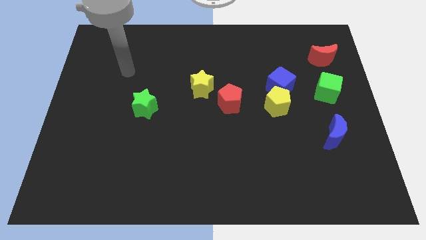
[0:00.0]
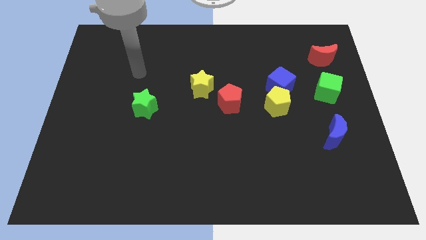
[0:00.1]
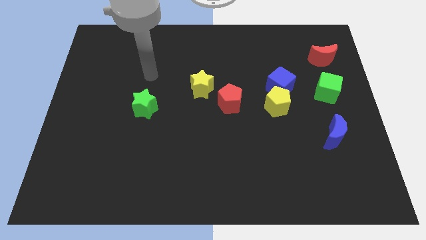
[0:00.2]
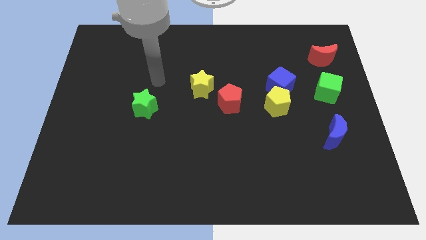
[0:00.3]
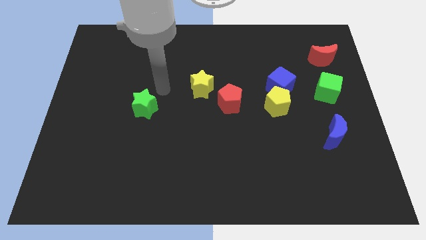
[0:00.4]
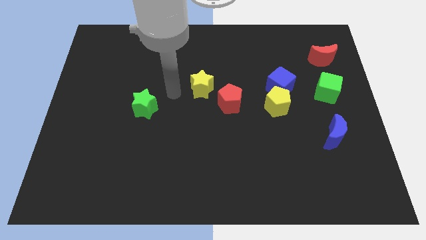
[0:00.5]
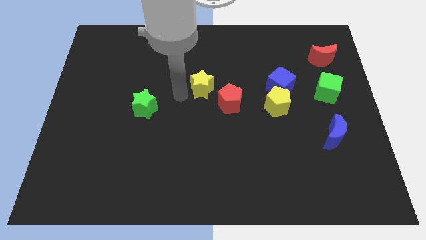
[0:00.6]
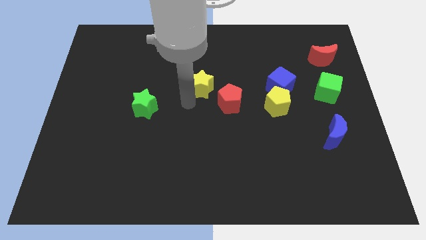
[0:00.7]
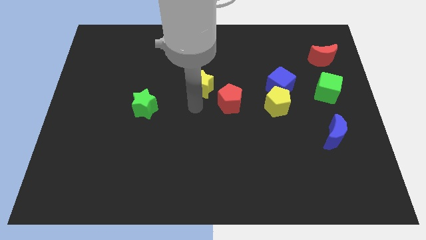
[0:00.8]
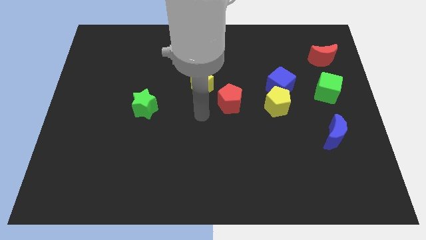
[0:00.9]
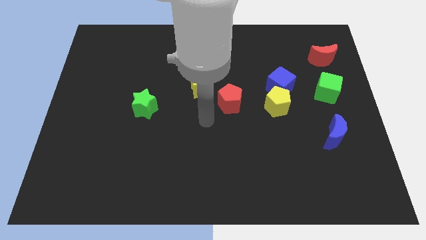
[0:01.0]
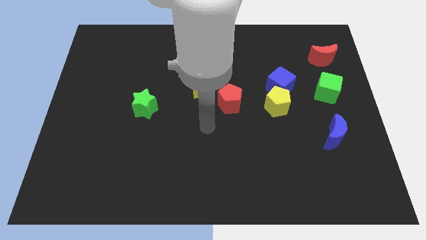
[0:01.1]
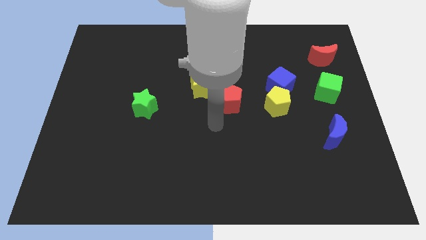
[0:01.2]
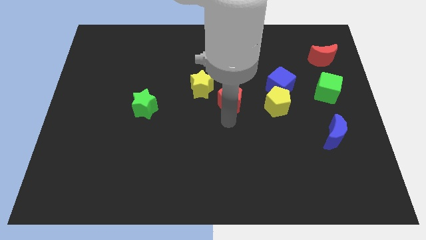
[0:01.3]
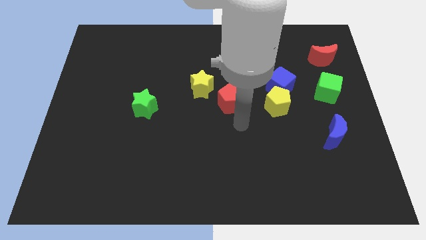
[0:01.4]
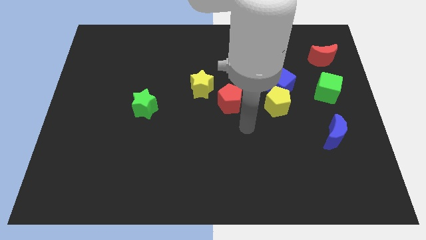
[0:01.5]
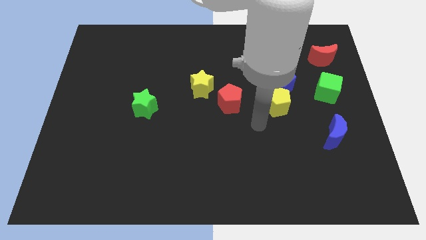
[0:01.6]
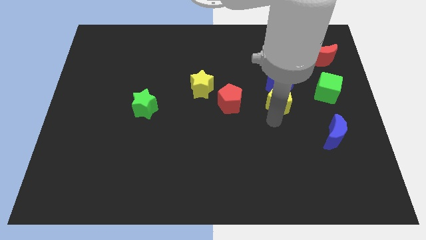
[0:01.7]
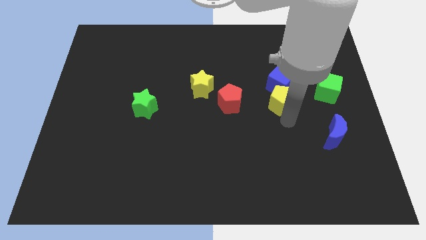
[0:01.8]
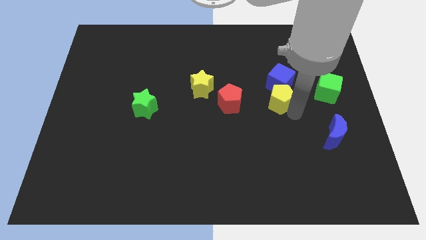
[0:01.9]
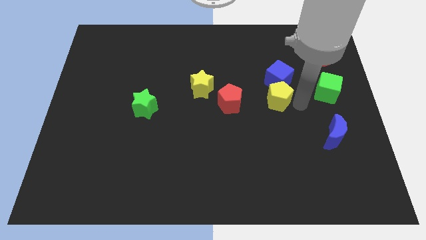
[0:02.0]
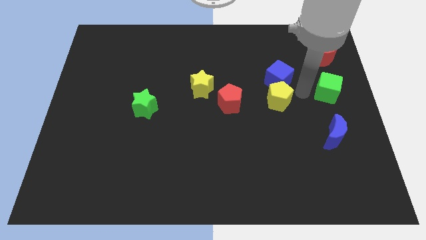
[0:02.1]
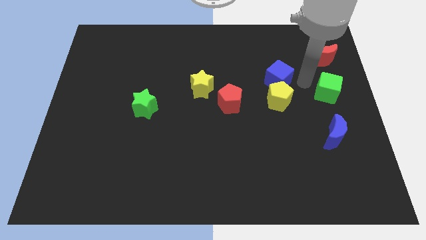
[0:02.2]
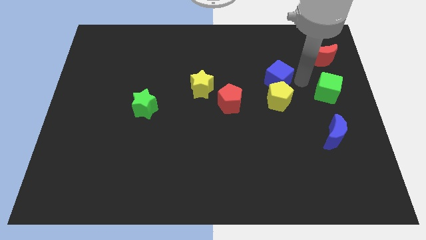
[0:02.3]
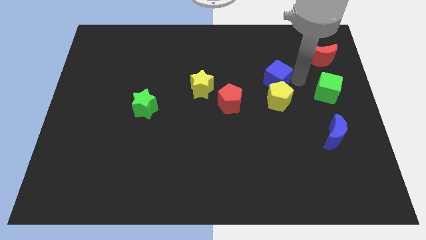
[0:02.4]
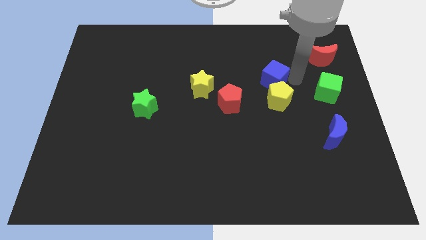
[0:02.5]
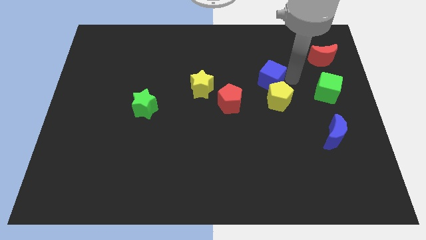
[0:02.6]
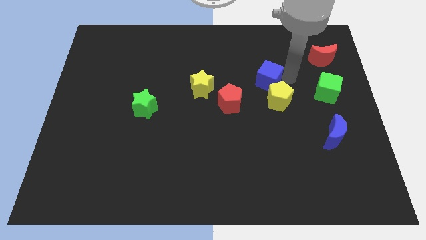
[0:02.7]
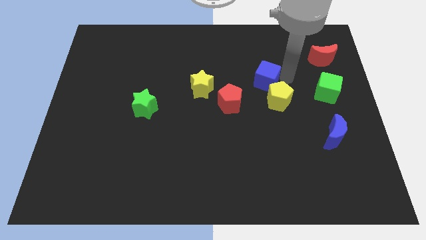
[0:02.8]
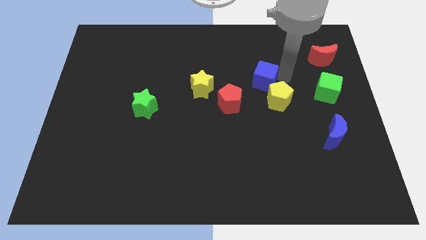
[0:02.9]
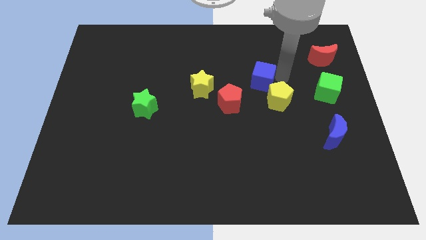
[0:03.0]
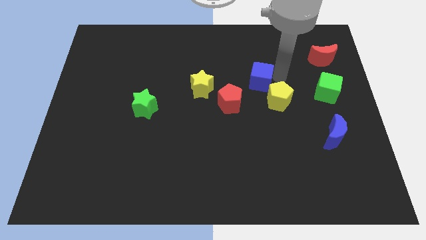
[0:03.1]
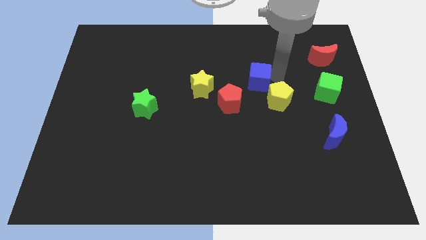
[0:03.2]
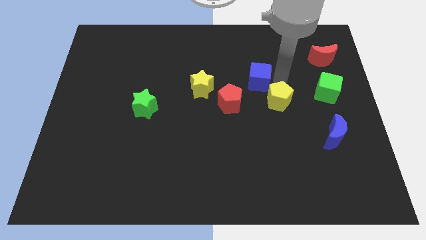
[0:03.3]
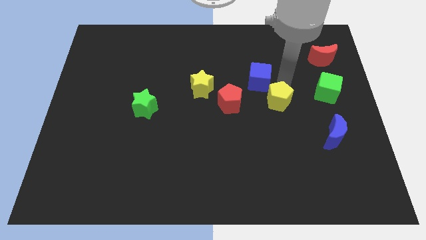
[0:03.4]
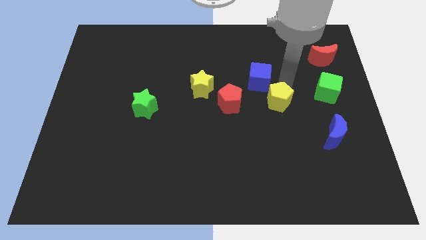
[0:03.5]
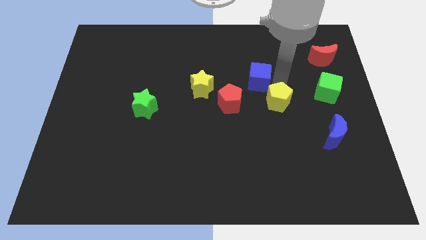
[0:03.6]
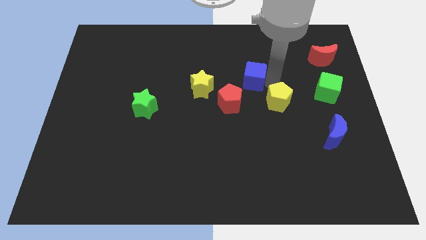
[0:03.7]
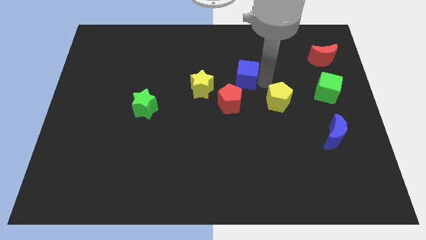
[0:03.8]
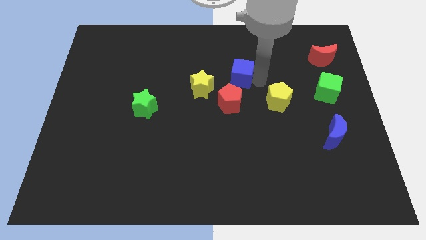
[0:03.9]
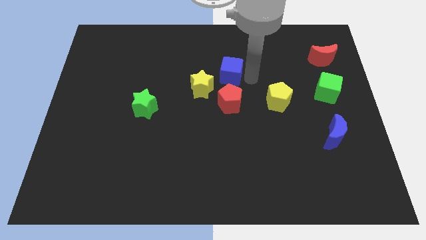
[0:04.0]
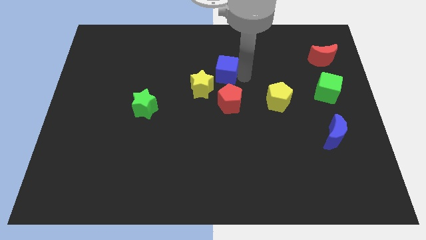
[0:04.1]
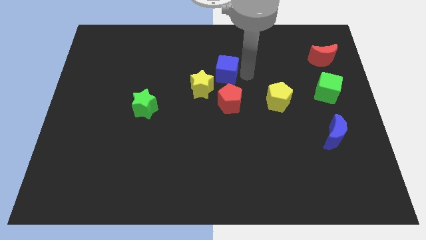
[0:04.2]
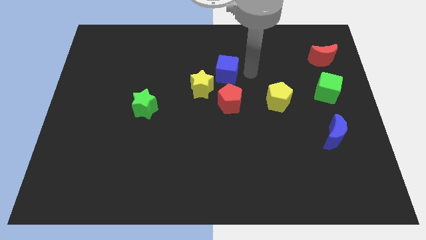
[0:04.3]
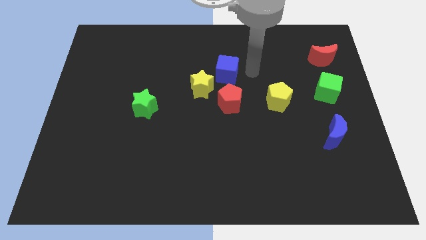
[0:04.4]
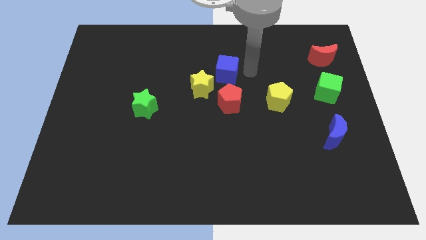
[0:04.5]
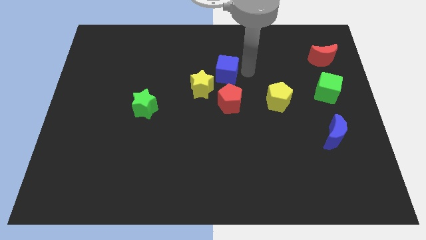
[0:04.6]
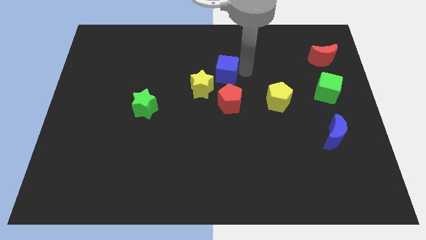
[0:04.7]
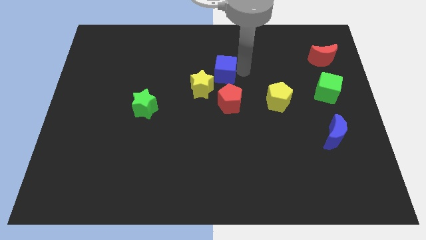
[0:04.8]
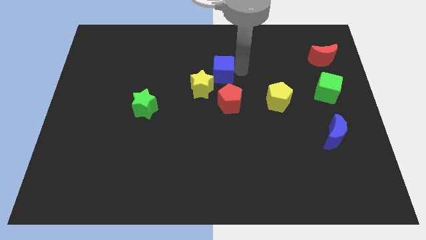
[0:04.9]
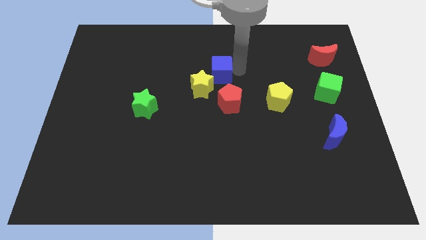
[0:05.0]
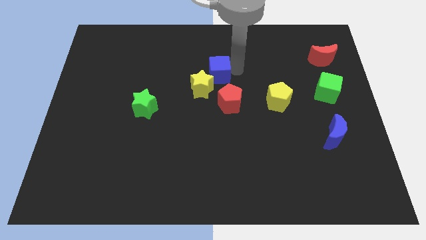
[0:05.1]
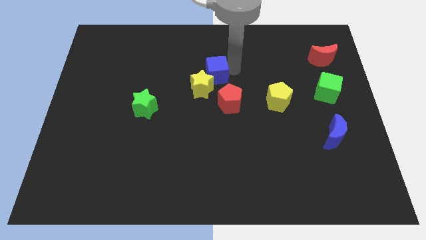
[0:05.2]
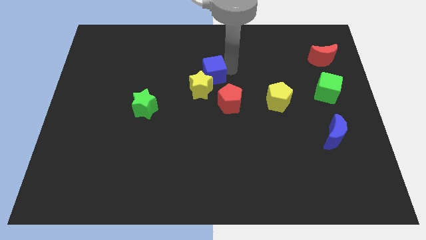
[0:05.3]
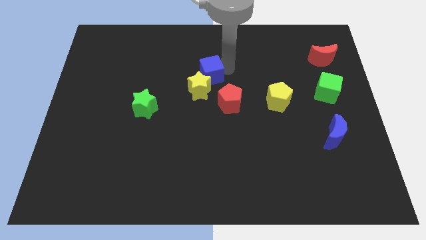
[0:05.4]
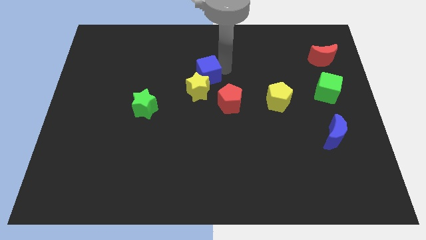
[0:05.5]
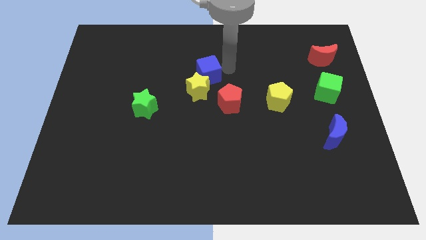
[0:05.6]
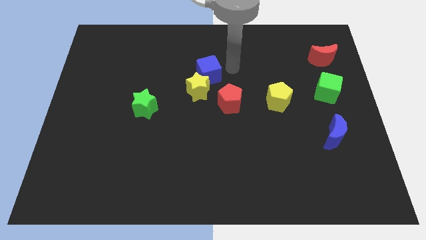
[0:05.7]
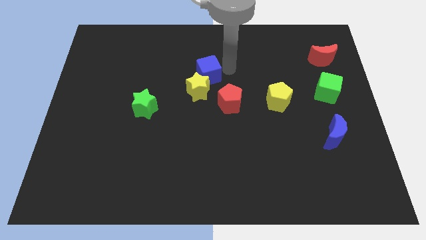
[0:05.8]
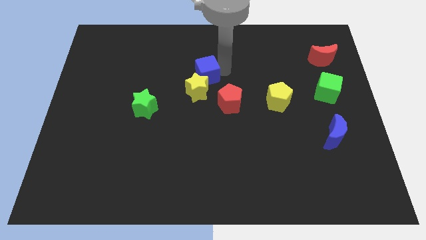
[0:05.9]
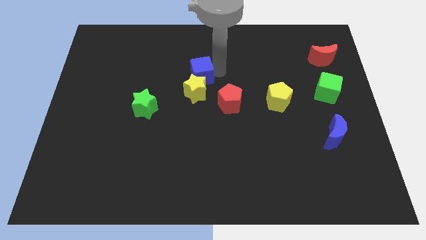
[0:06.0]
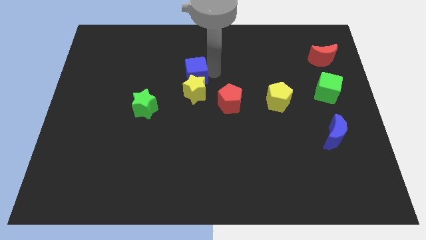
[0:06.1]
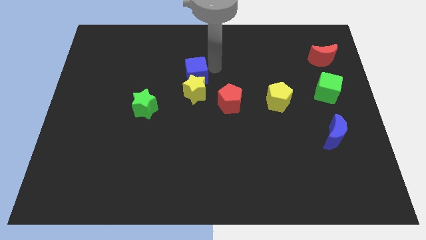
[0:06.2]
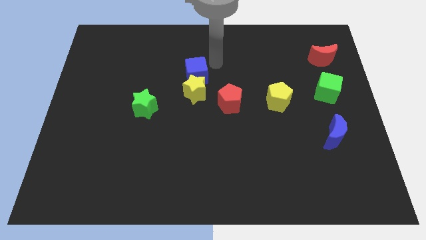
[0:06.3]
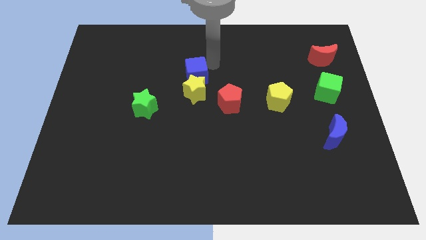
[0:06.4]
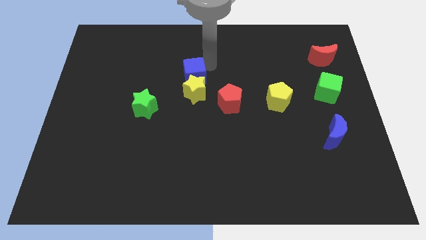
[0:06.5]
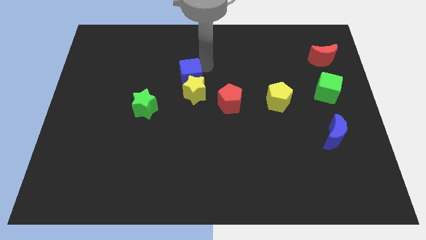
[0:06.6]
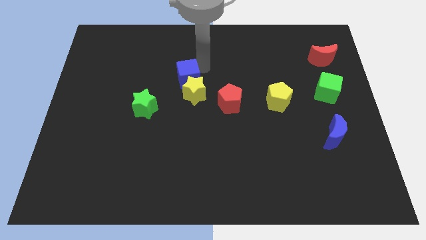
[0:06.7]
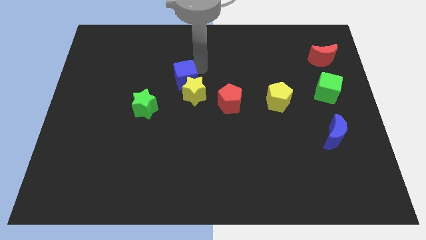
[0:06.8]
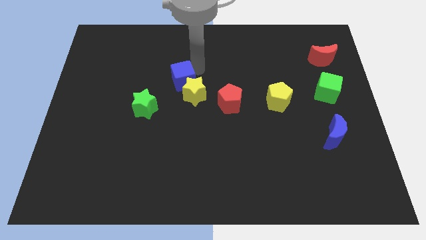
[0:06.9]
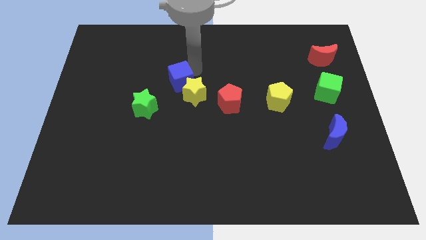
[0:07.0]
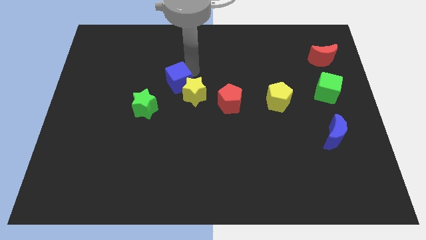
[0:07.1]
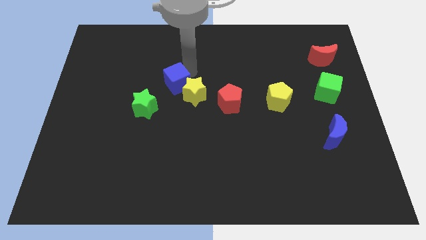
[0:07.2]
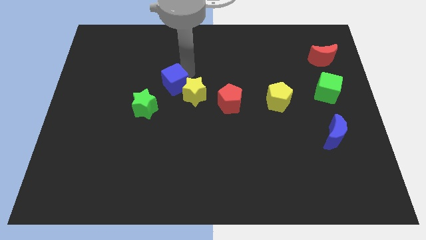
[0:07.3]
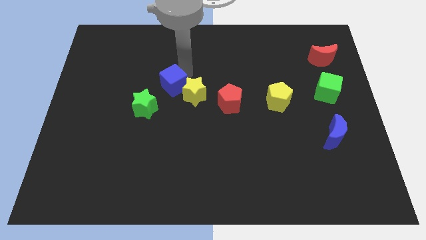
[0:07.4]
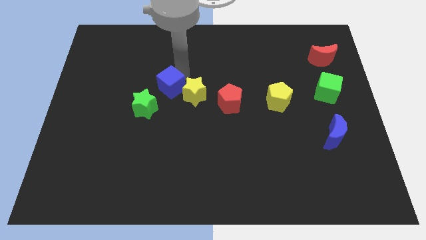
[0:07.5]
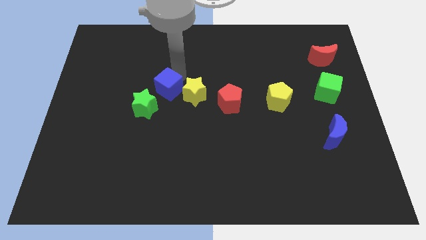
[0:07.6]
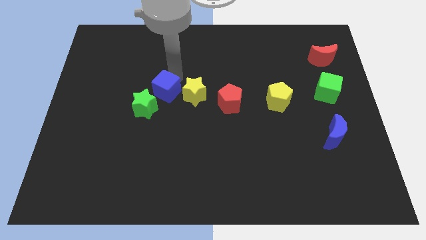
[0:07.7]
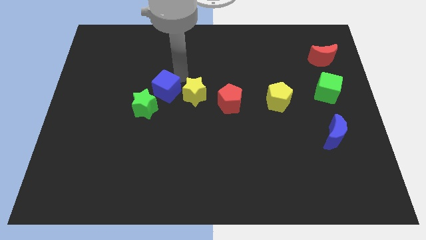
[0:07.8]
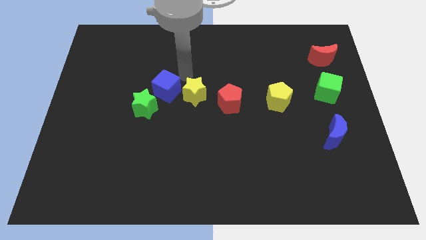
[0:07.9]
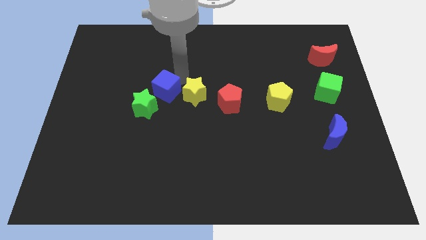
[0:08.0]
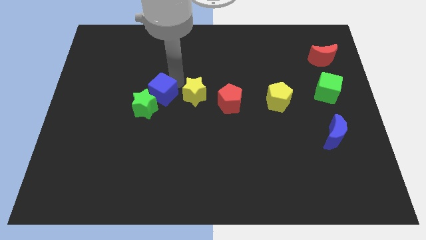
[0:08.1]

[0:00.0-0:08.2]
slide the blue cube towards the green star
